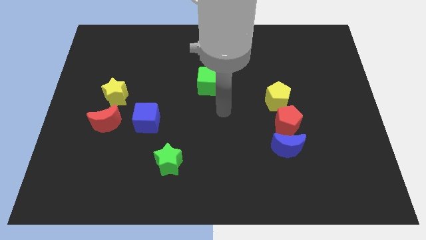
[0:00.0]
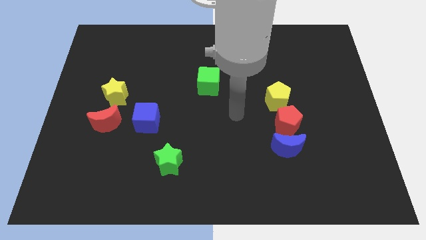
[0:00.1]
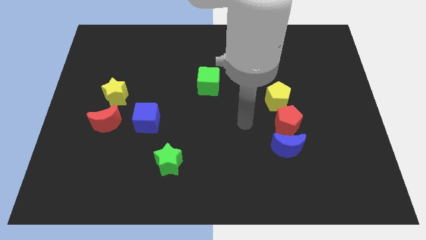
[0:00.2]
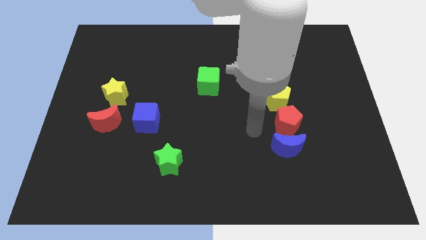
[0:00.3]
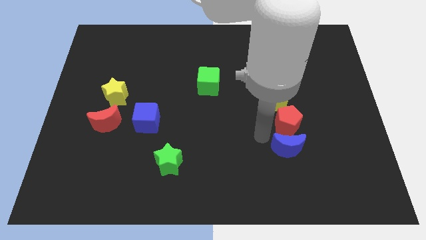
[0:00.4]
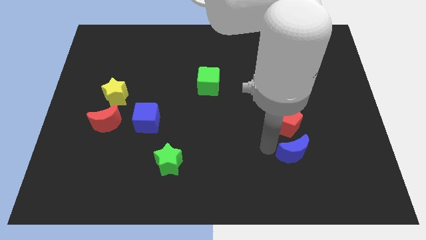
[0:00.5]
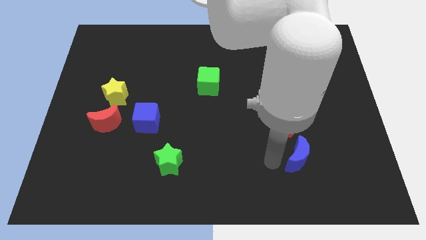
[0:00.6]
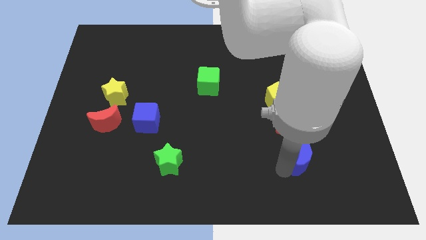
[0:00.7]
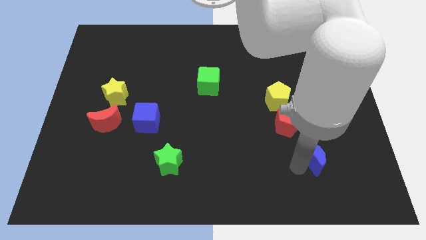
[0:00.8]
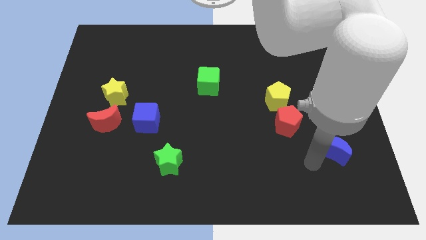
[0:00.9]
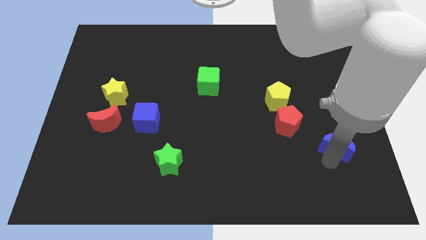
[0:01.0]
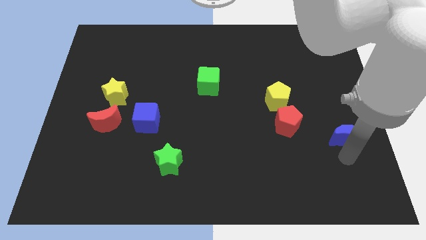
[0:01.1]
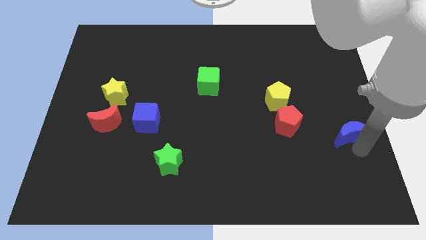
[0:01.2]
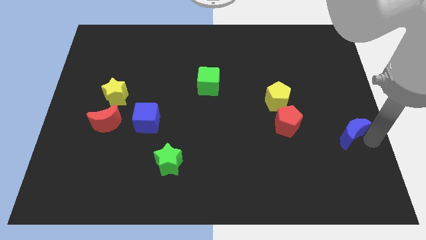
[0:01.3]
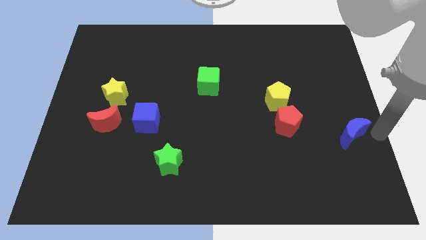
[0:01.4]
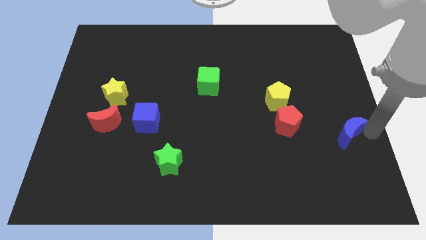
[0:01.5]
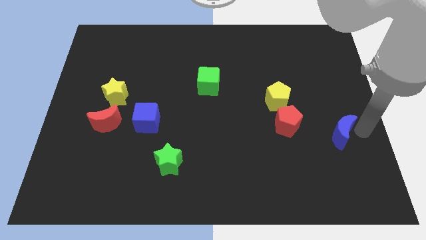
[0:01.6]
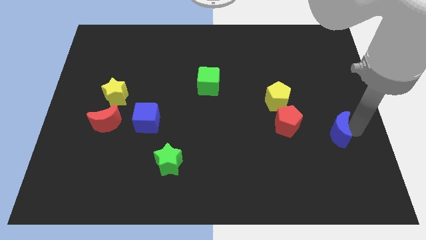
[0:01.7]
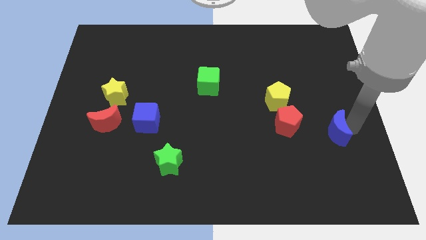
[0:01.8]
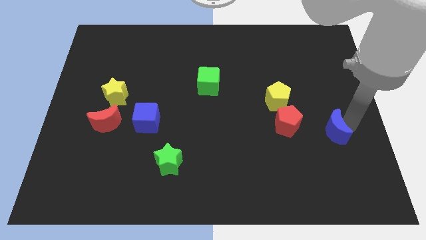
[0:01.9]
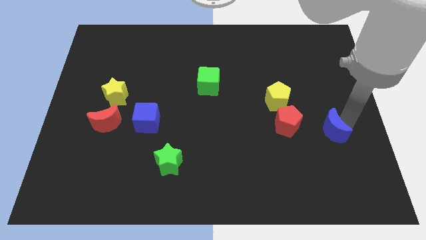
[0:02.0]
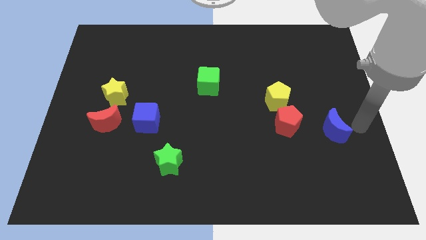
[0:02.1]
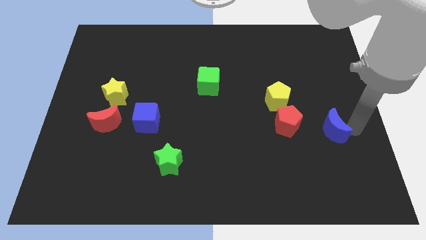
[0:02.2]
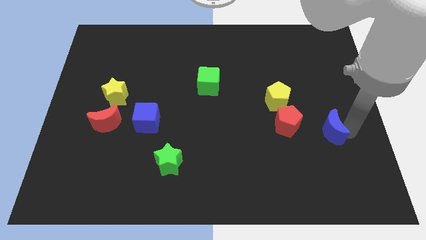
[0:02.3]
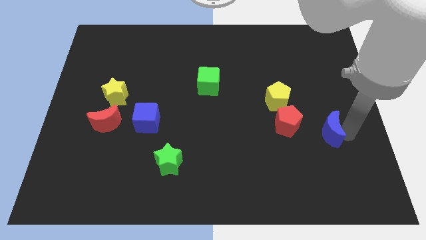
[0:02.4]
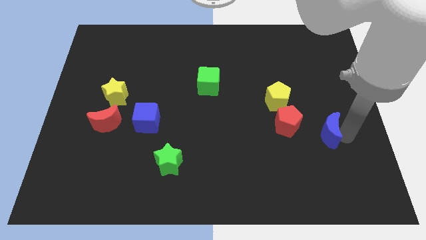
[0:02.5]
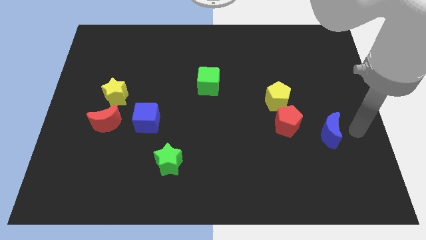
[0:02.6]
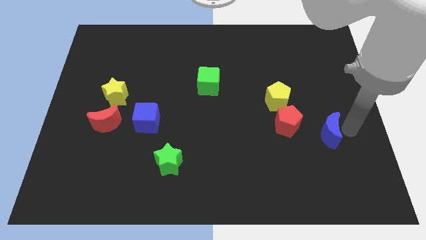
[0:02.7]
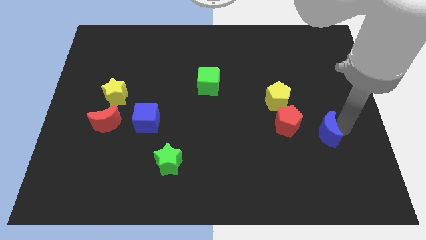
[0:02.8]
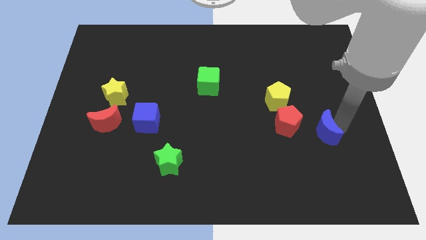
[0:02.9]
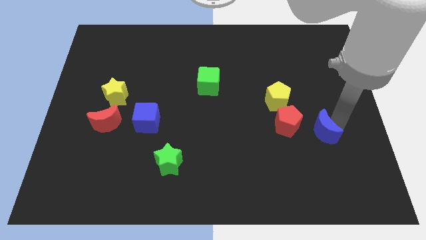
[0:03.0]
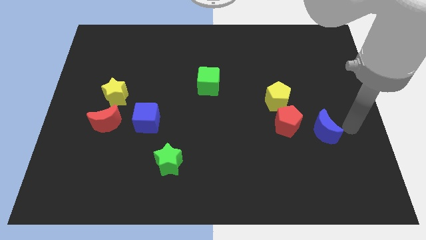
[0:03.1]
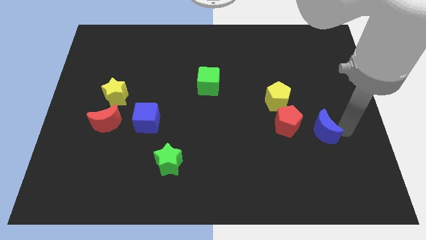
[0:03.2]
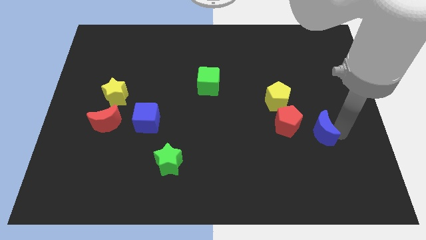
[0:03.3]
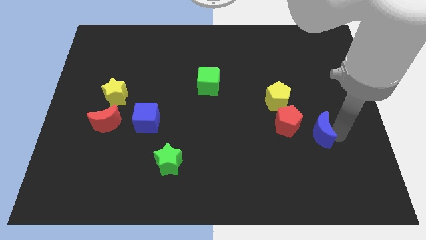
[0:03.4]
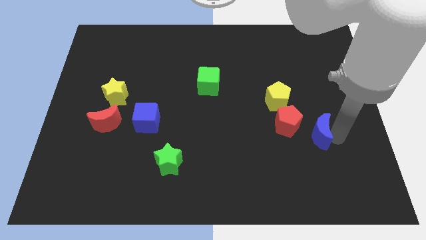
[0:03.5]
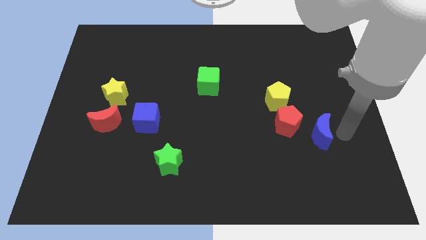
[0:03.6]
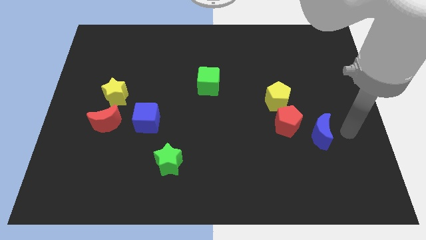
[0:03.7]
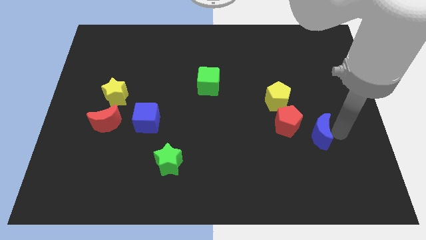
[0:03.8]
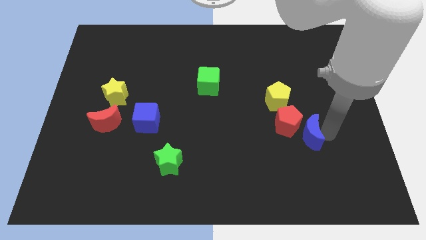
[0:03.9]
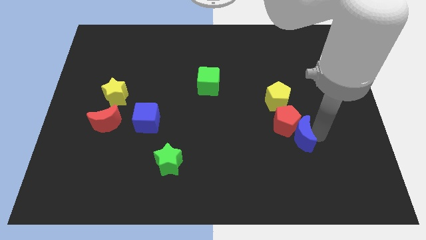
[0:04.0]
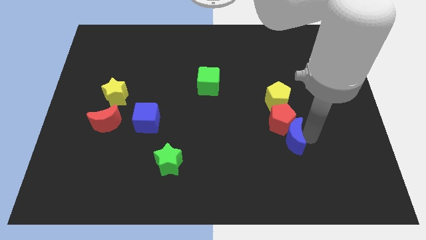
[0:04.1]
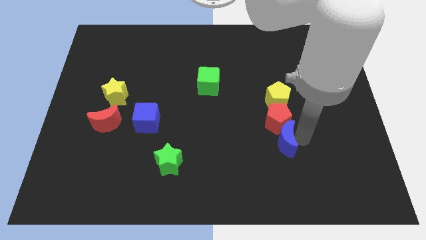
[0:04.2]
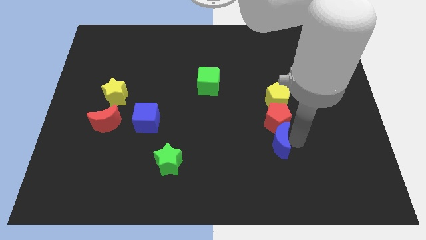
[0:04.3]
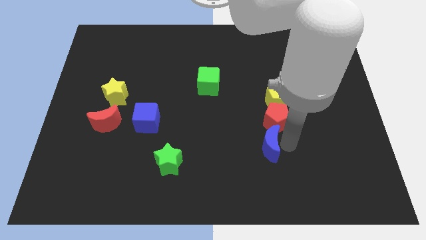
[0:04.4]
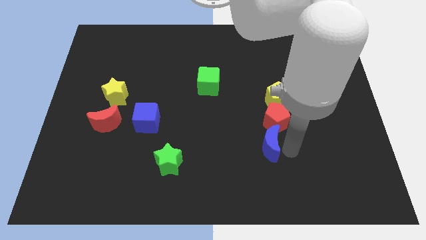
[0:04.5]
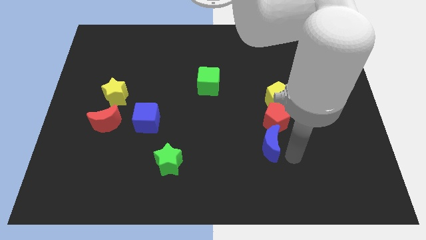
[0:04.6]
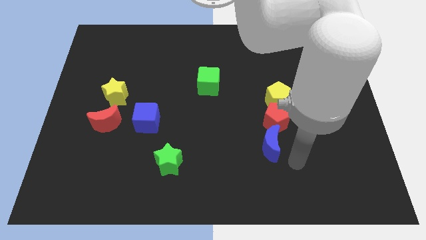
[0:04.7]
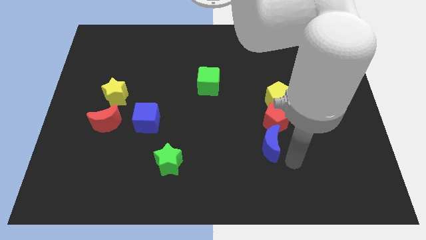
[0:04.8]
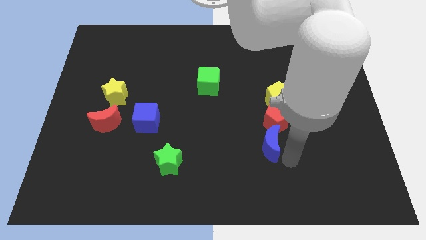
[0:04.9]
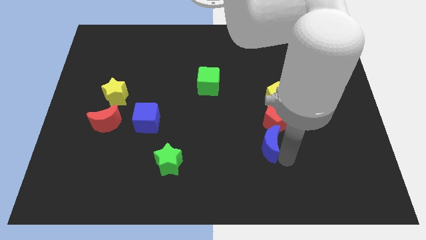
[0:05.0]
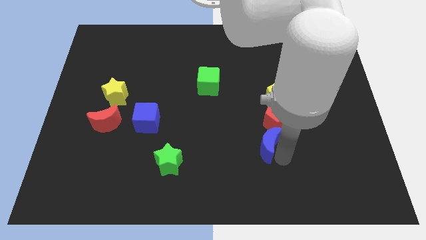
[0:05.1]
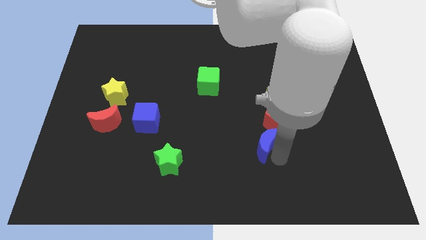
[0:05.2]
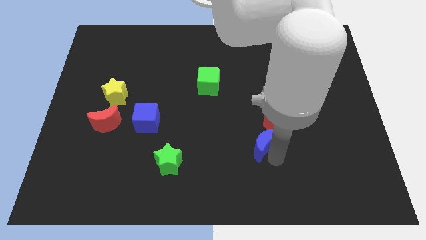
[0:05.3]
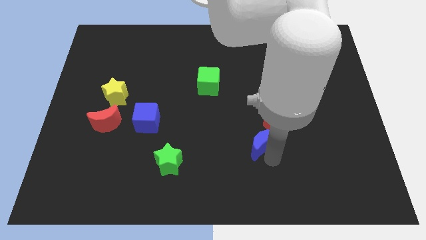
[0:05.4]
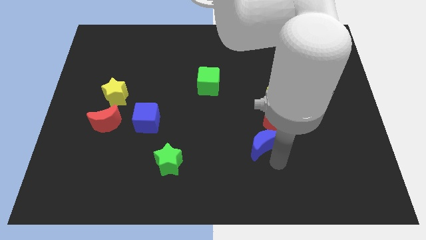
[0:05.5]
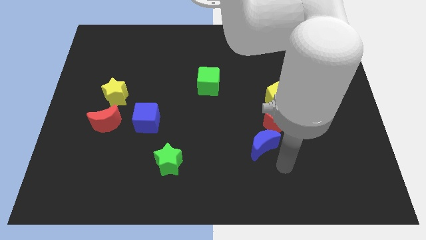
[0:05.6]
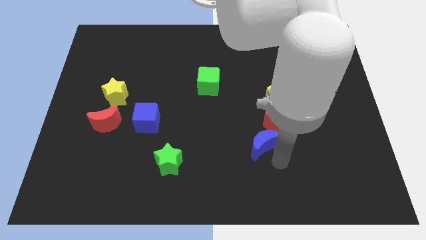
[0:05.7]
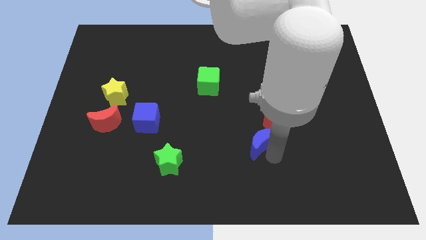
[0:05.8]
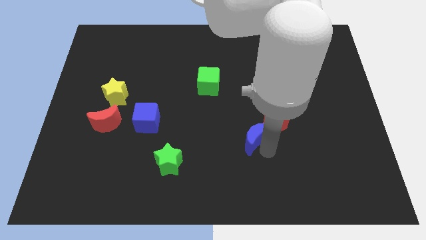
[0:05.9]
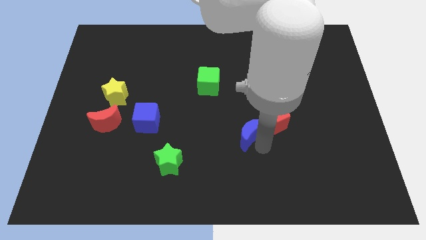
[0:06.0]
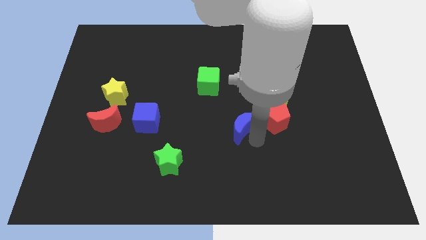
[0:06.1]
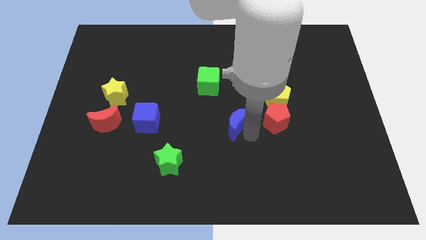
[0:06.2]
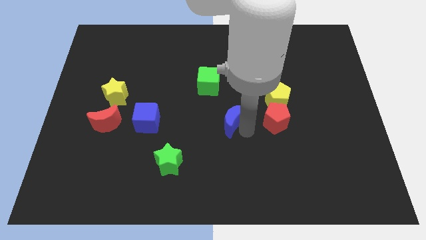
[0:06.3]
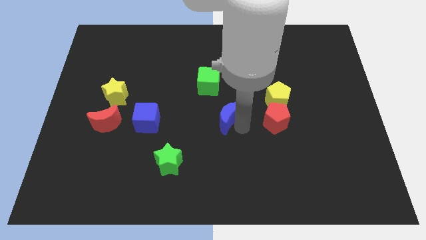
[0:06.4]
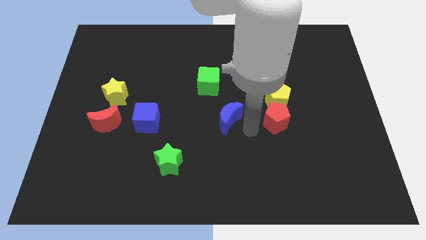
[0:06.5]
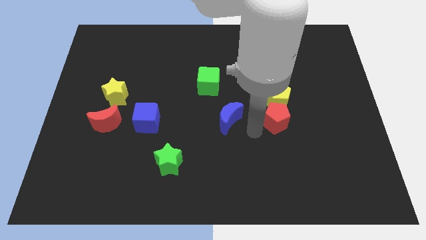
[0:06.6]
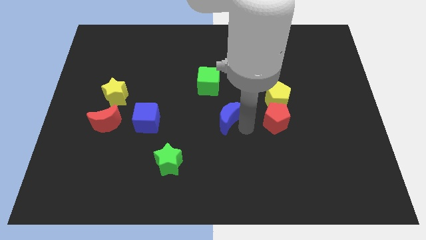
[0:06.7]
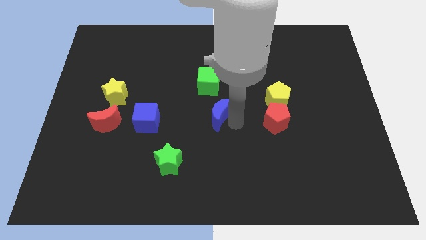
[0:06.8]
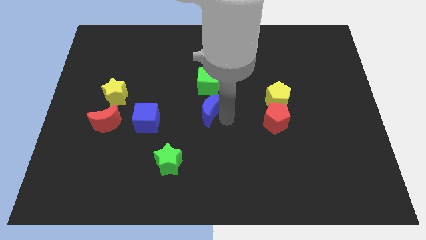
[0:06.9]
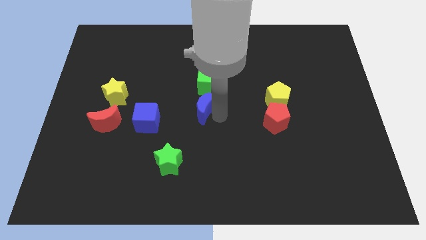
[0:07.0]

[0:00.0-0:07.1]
push the blue moon to the bottom left side of the green cube

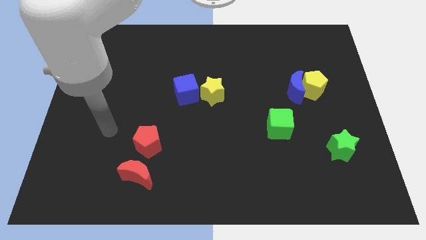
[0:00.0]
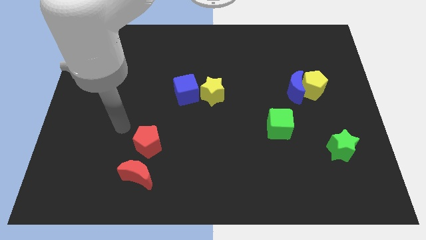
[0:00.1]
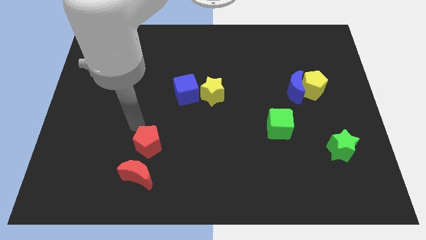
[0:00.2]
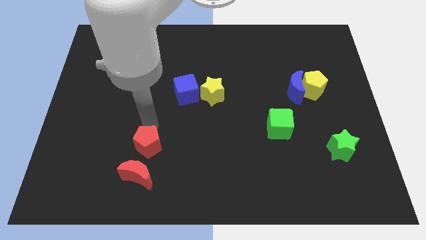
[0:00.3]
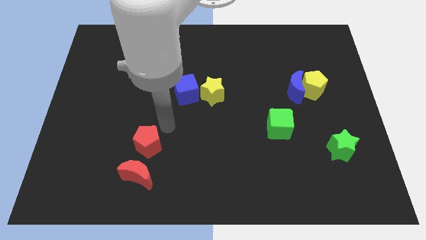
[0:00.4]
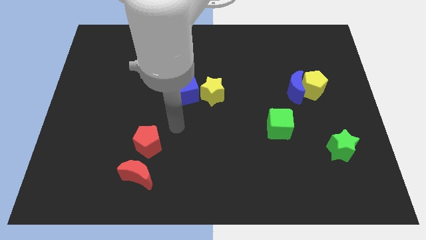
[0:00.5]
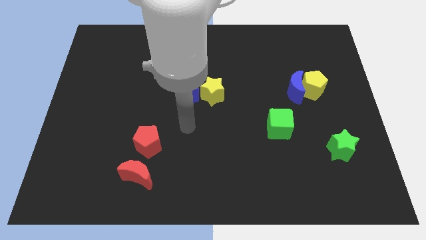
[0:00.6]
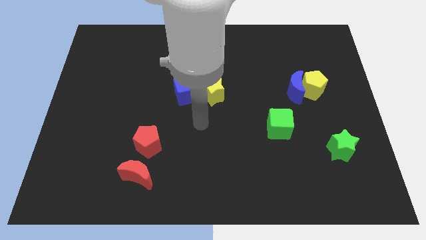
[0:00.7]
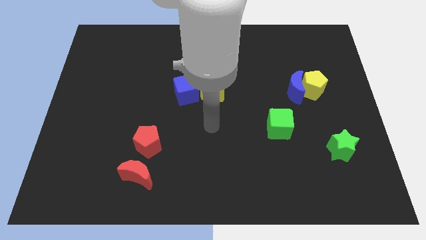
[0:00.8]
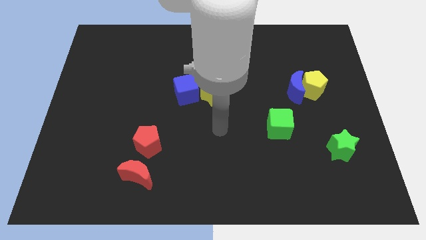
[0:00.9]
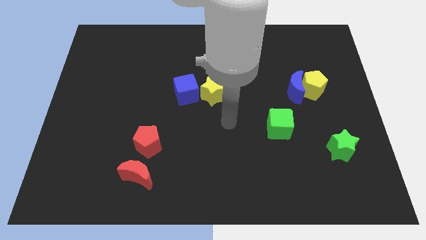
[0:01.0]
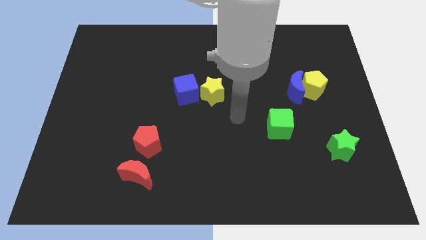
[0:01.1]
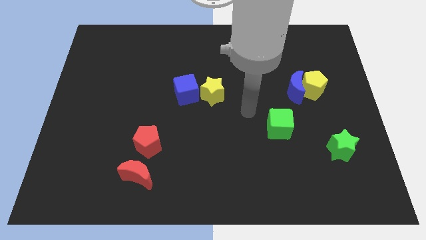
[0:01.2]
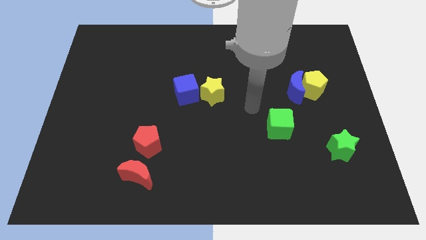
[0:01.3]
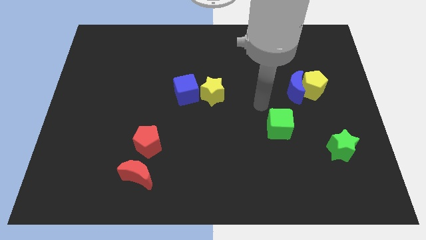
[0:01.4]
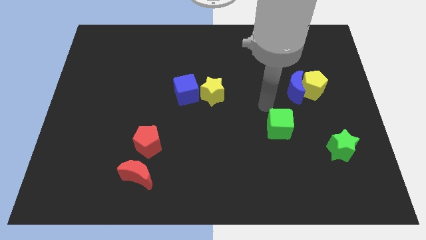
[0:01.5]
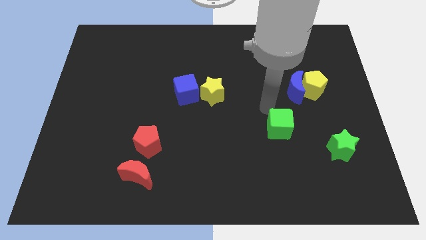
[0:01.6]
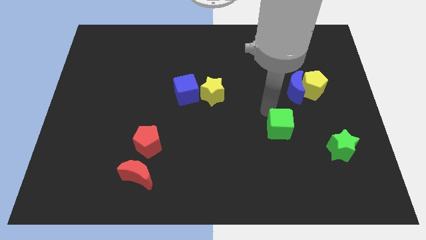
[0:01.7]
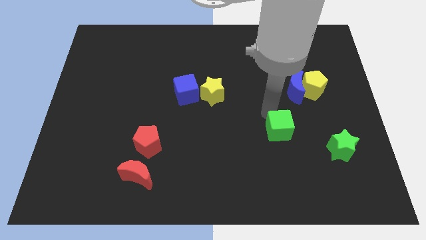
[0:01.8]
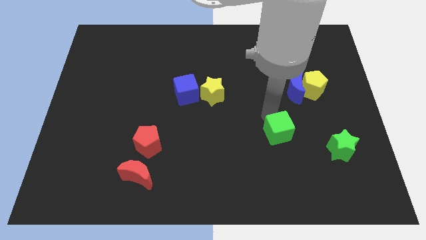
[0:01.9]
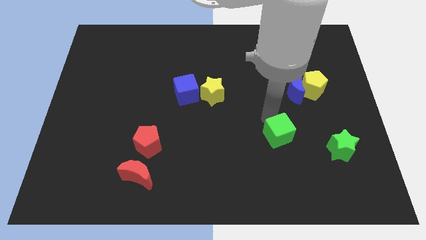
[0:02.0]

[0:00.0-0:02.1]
put the green cube to the left of the green star
